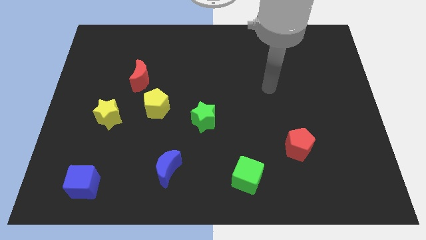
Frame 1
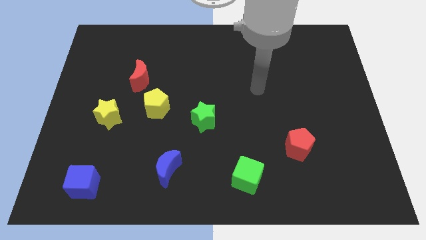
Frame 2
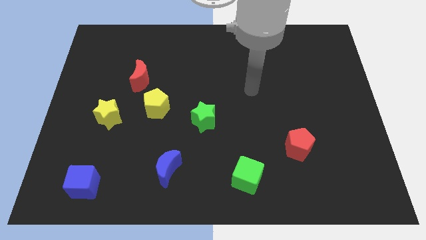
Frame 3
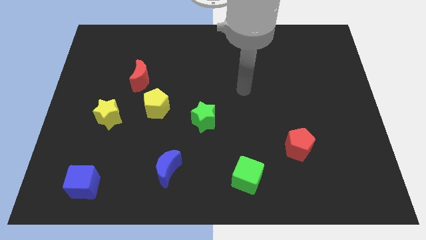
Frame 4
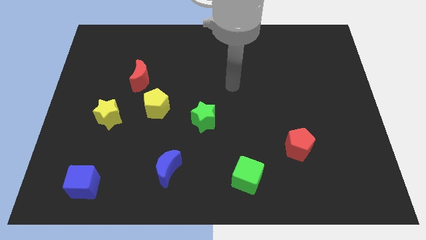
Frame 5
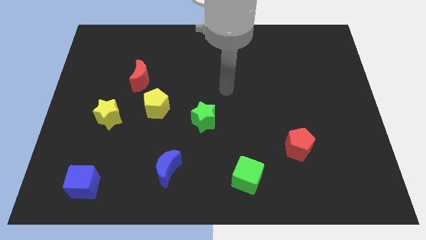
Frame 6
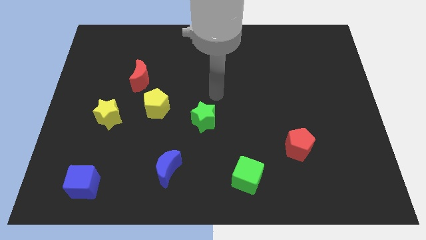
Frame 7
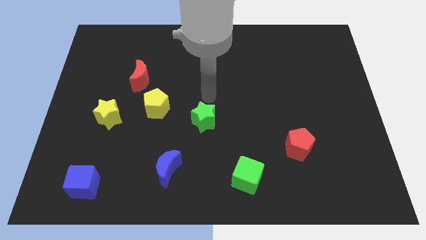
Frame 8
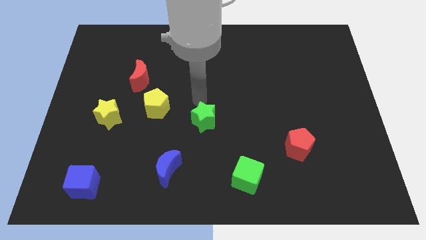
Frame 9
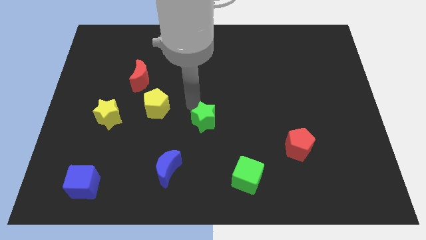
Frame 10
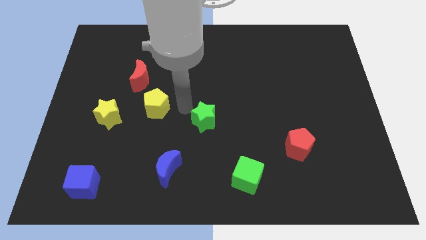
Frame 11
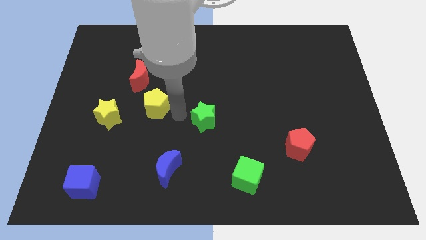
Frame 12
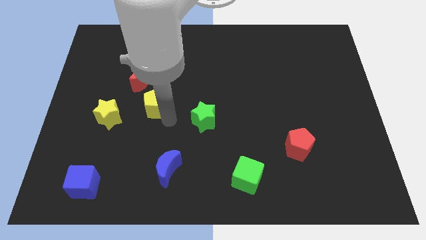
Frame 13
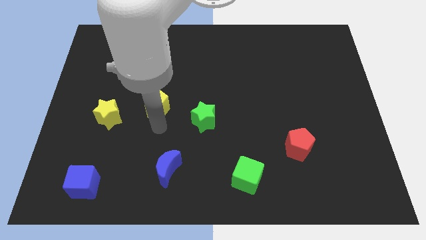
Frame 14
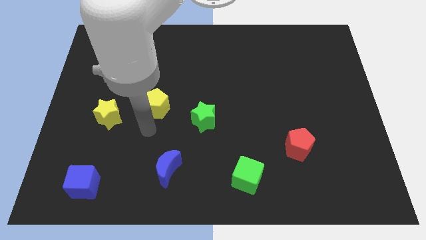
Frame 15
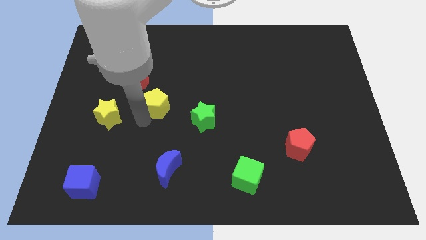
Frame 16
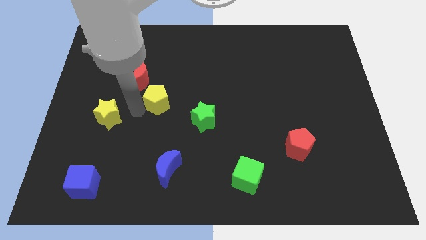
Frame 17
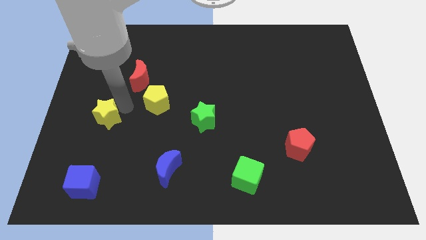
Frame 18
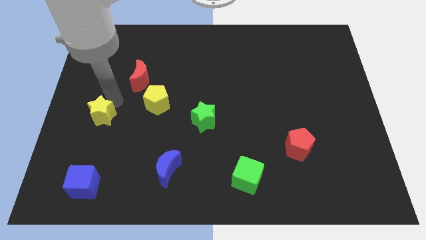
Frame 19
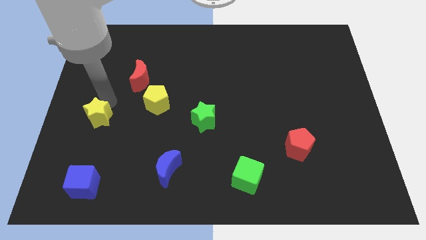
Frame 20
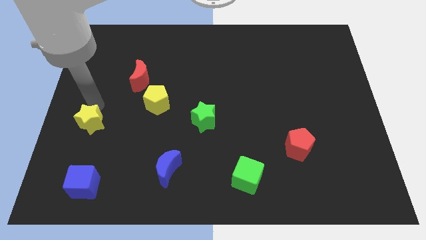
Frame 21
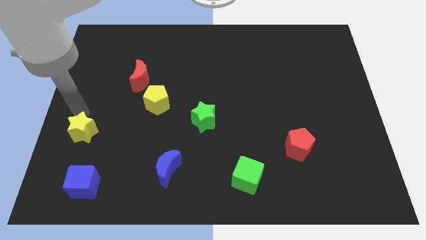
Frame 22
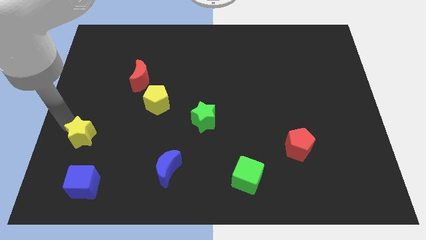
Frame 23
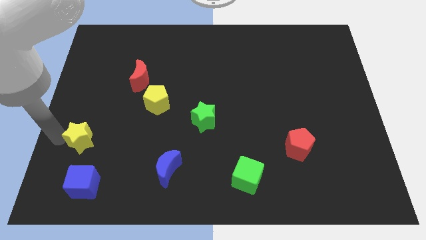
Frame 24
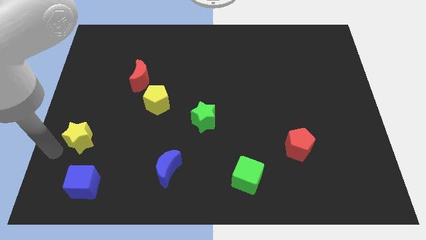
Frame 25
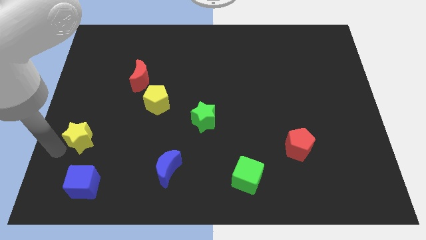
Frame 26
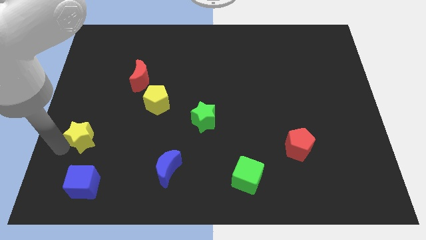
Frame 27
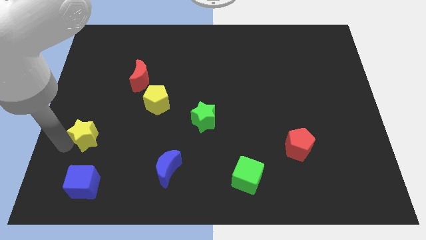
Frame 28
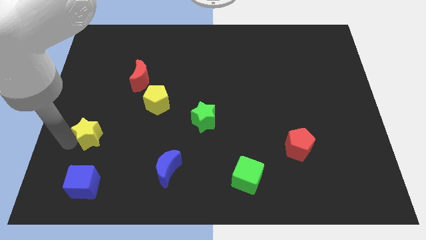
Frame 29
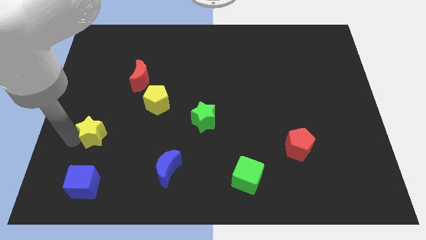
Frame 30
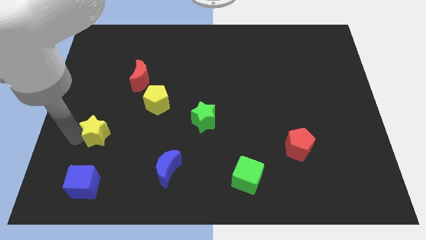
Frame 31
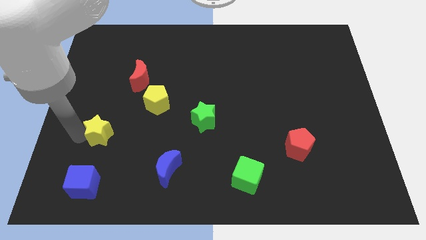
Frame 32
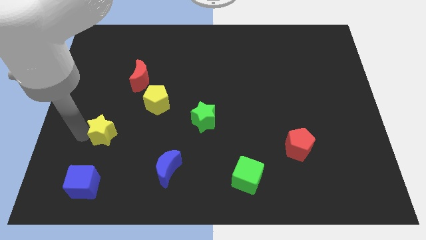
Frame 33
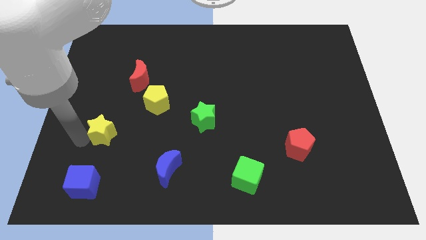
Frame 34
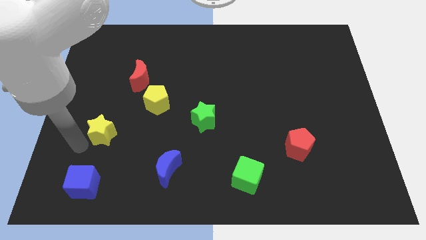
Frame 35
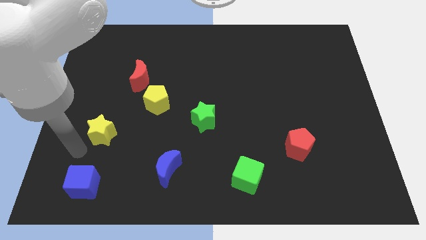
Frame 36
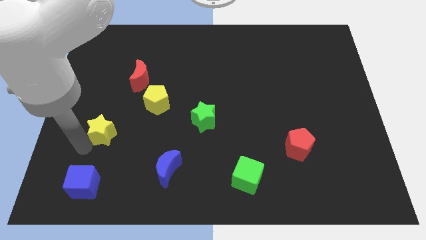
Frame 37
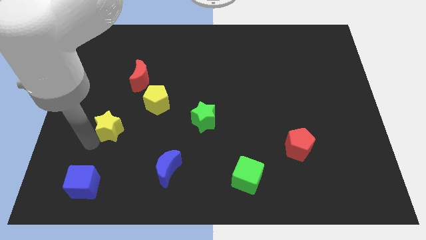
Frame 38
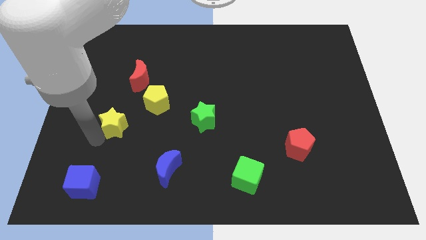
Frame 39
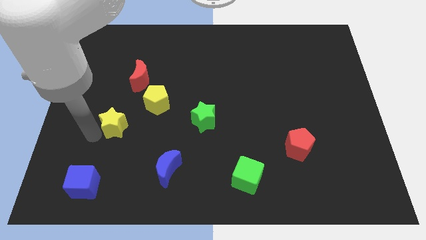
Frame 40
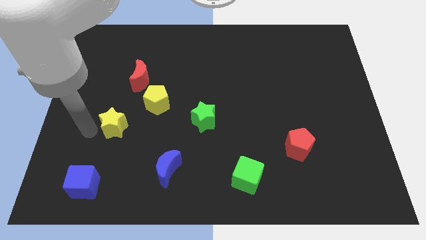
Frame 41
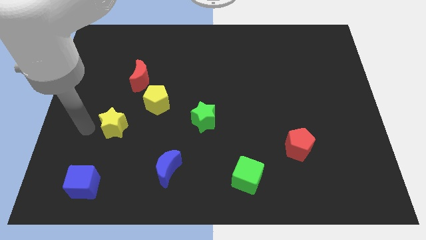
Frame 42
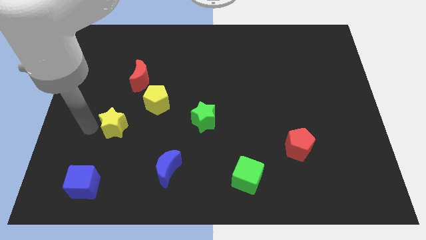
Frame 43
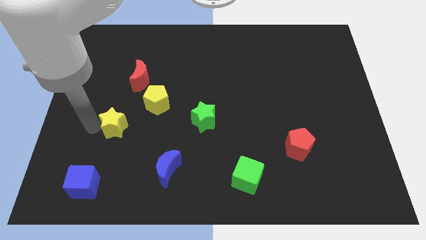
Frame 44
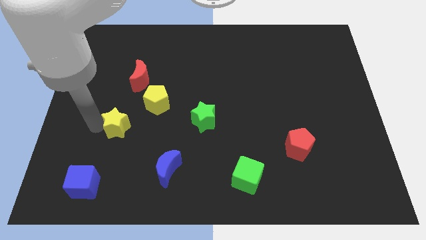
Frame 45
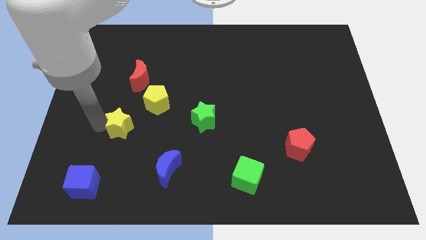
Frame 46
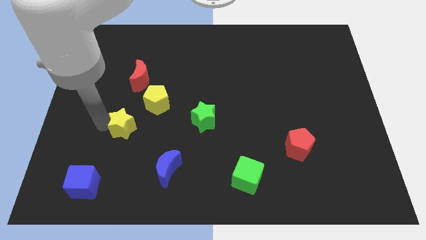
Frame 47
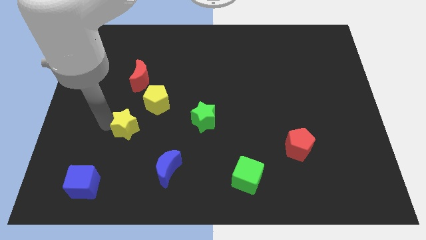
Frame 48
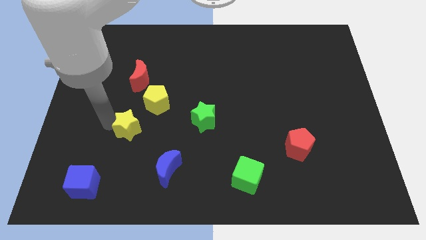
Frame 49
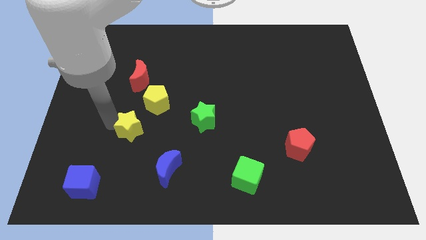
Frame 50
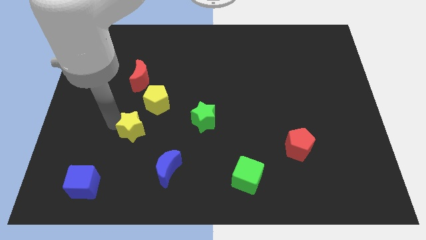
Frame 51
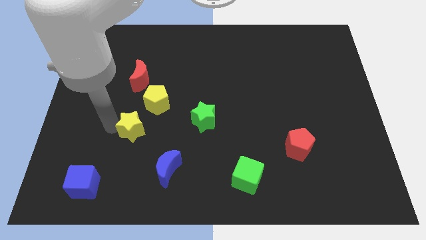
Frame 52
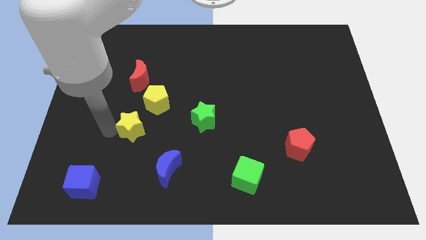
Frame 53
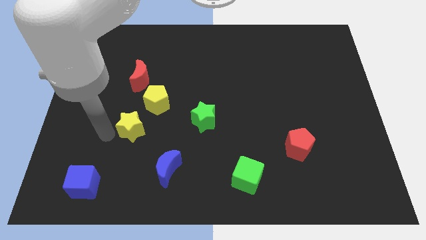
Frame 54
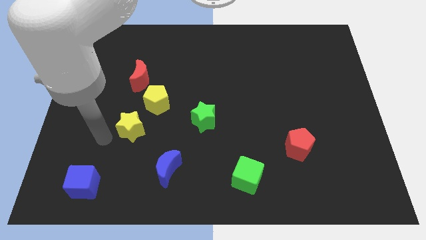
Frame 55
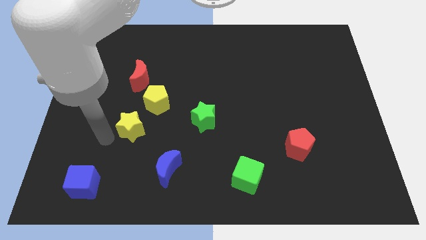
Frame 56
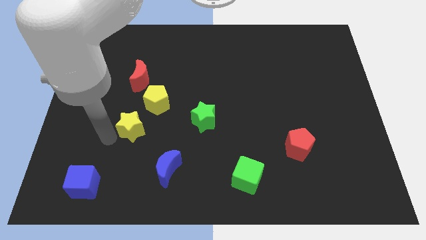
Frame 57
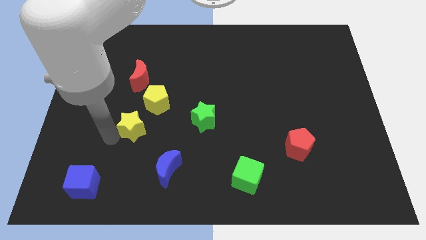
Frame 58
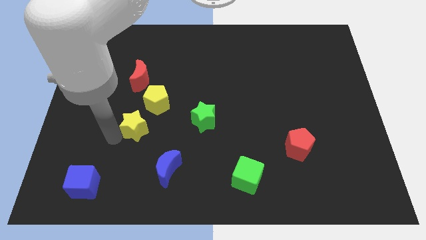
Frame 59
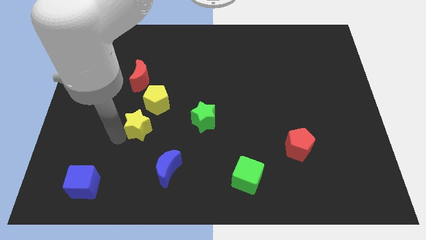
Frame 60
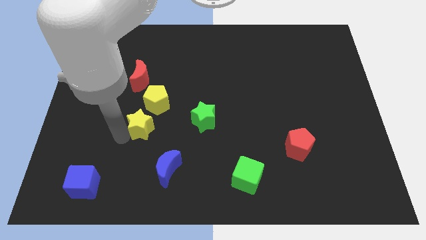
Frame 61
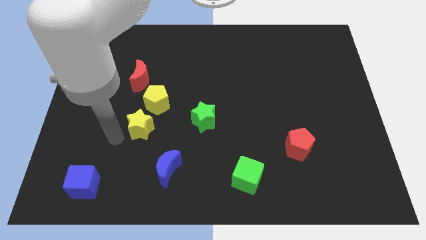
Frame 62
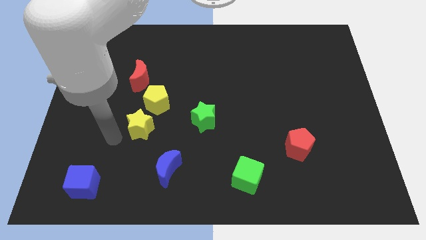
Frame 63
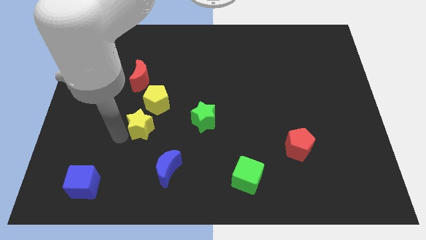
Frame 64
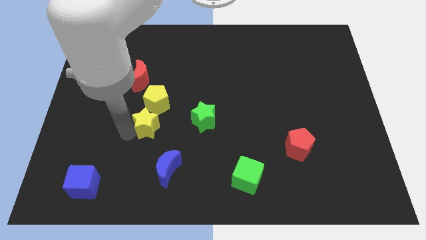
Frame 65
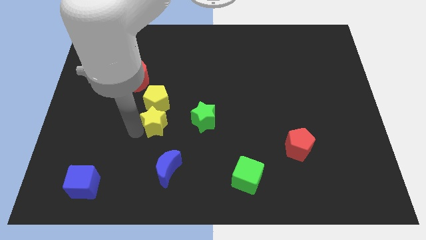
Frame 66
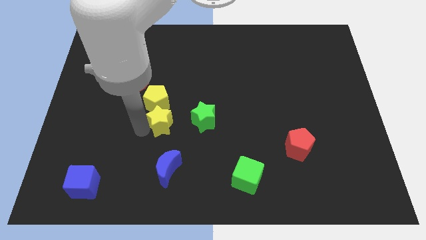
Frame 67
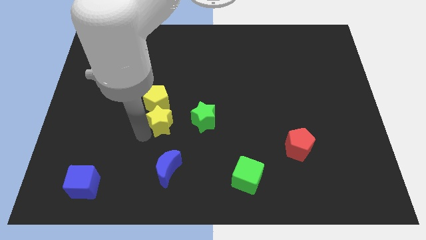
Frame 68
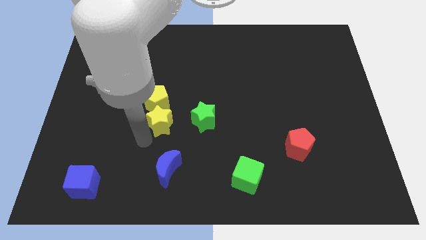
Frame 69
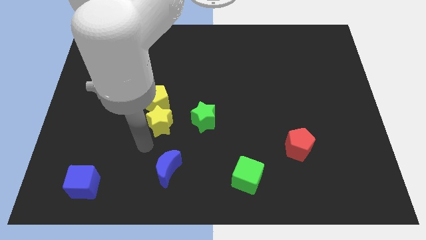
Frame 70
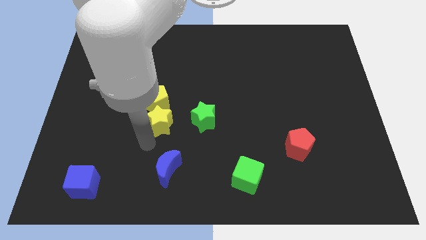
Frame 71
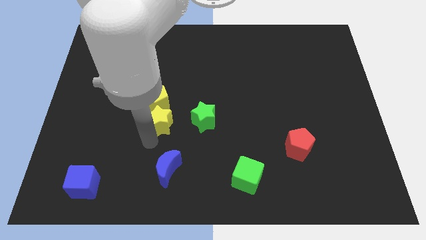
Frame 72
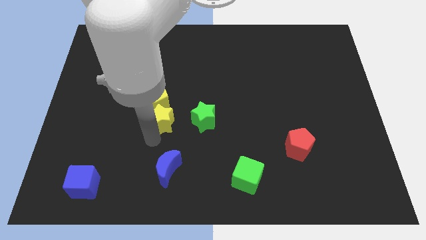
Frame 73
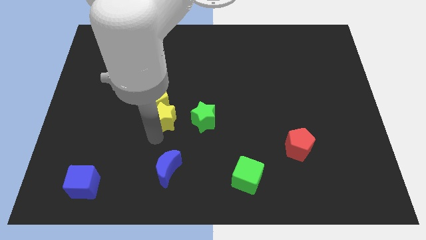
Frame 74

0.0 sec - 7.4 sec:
slide the yellow star to the center
